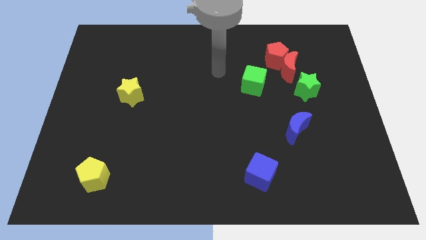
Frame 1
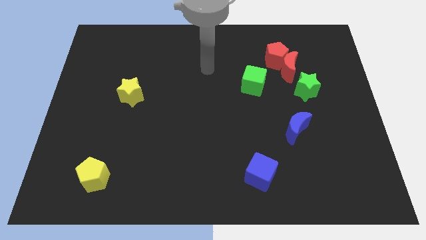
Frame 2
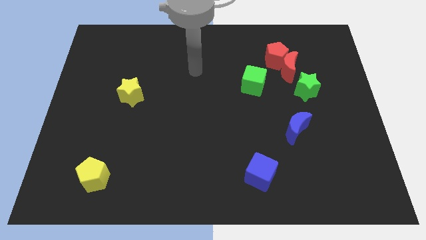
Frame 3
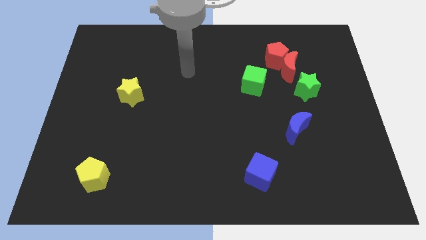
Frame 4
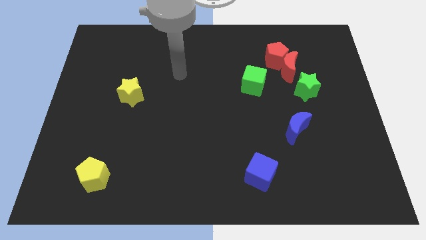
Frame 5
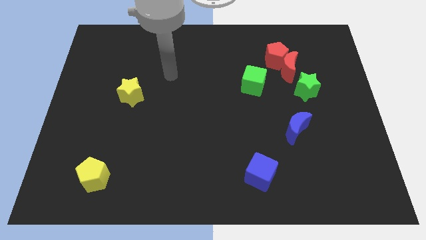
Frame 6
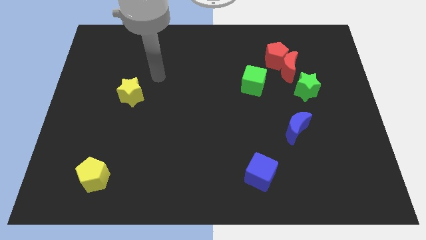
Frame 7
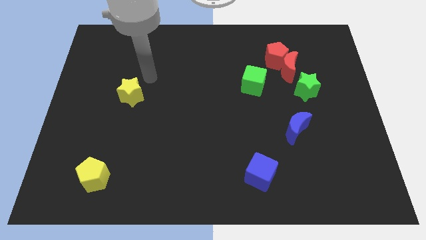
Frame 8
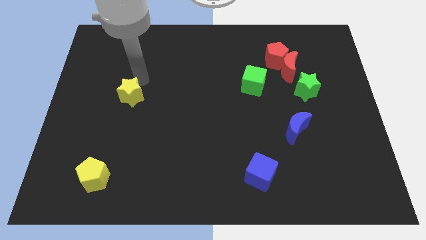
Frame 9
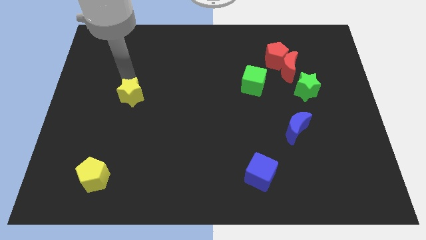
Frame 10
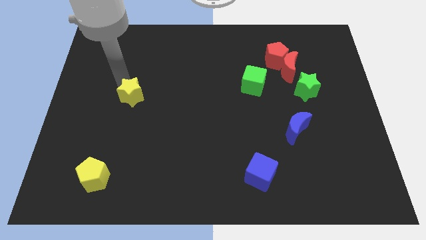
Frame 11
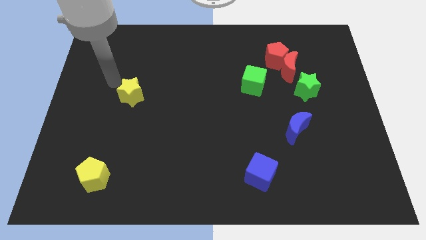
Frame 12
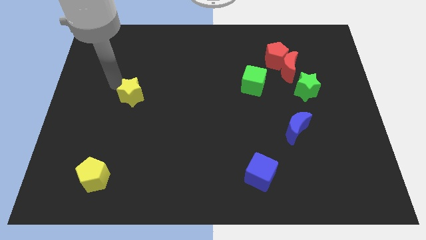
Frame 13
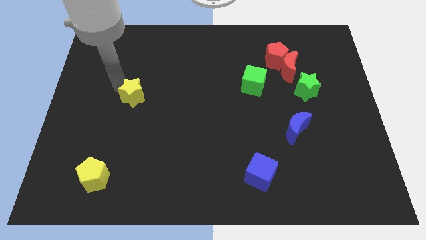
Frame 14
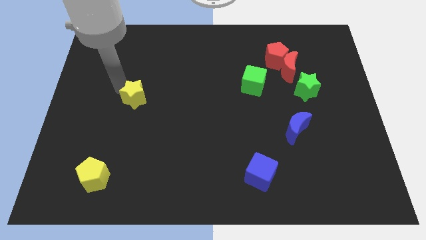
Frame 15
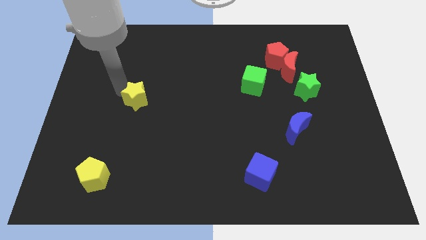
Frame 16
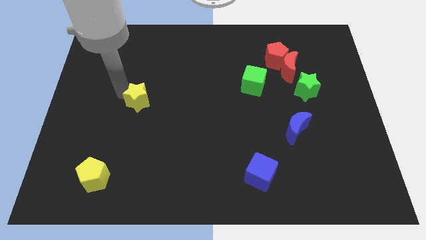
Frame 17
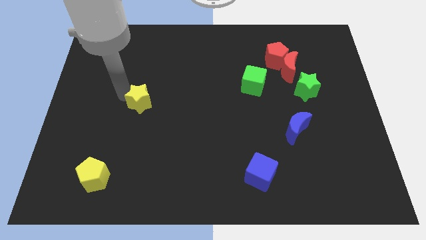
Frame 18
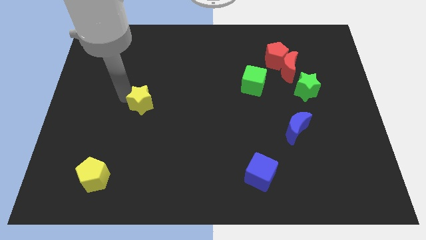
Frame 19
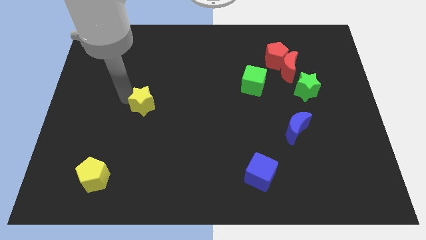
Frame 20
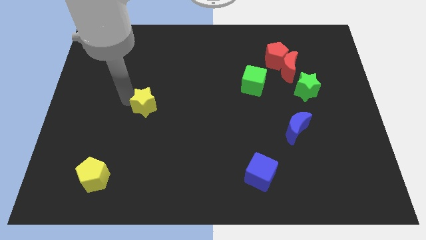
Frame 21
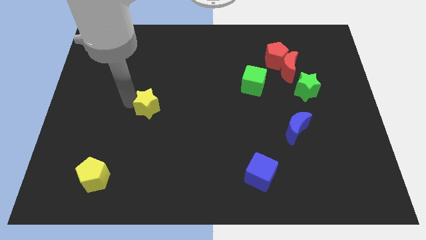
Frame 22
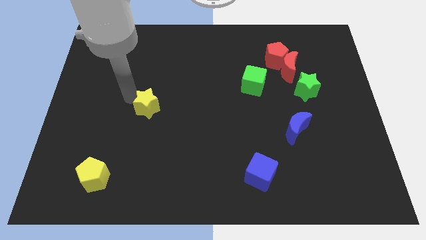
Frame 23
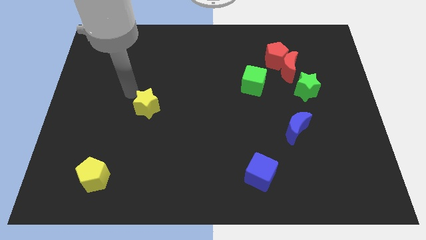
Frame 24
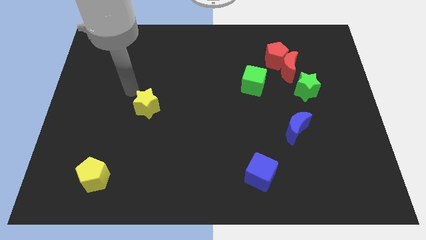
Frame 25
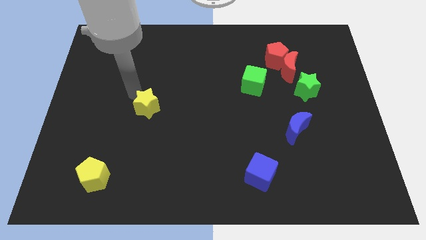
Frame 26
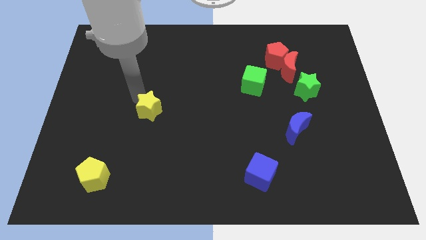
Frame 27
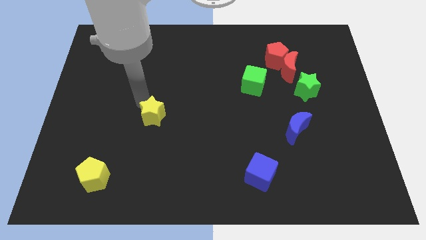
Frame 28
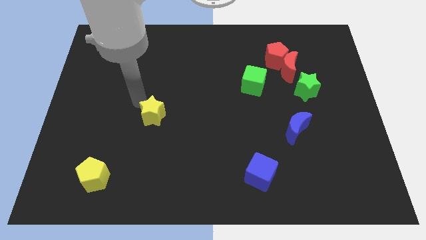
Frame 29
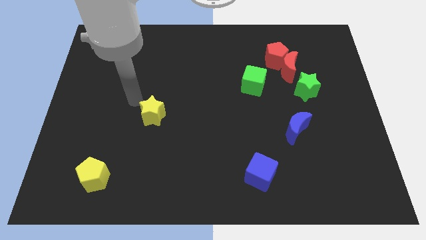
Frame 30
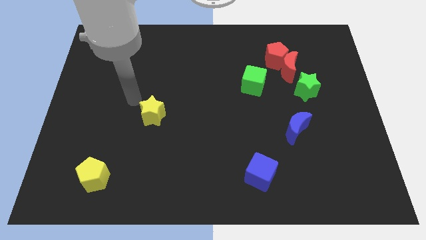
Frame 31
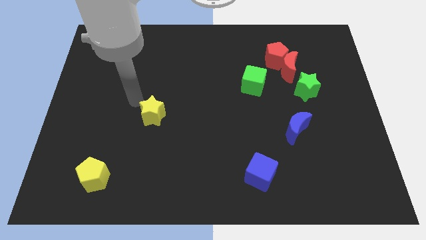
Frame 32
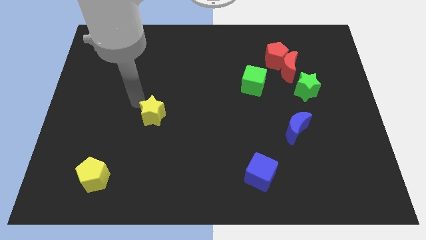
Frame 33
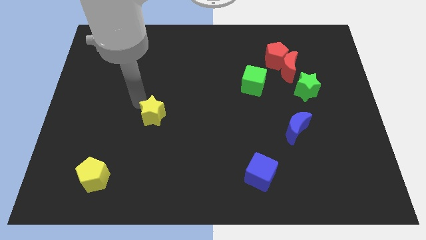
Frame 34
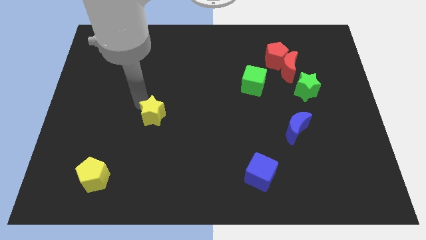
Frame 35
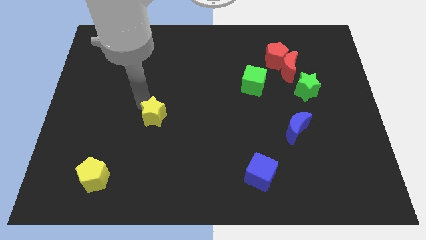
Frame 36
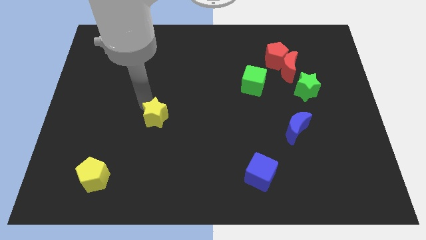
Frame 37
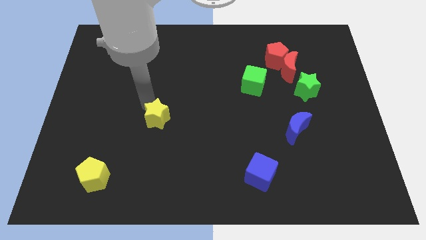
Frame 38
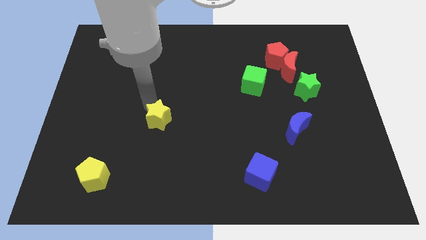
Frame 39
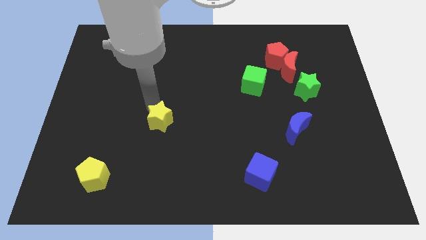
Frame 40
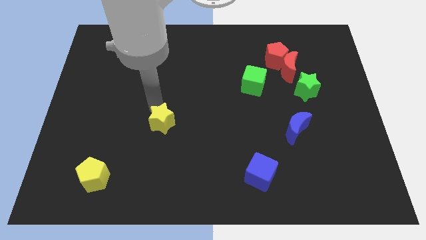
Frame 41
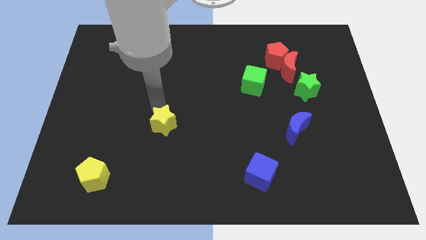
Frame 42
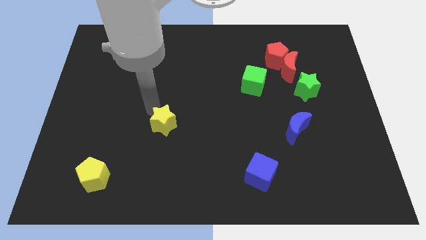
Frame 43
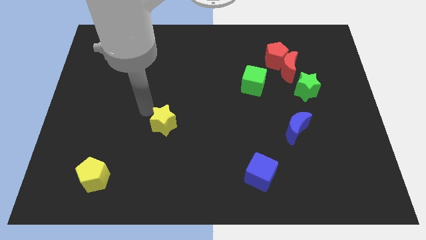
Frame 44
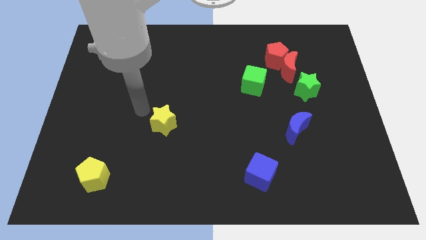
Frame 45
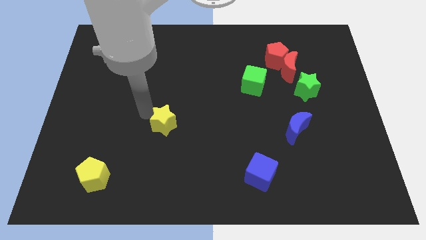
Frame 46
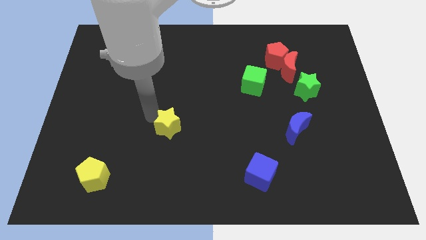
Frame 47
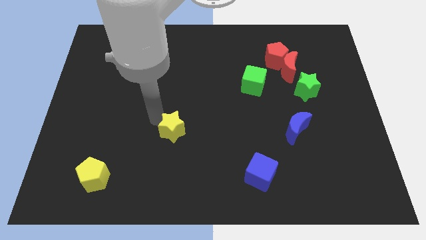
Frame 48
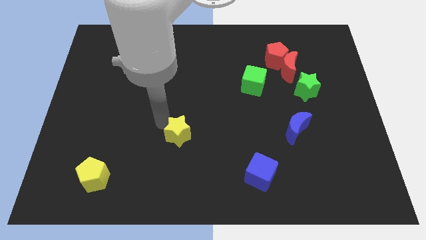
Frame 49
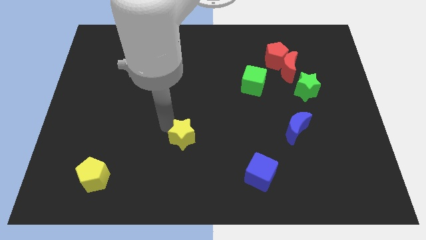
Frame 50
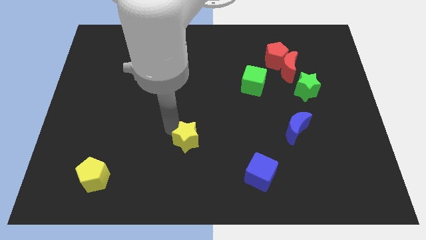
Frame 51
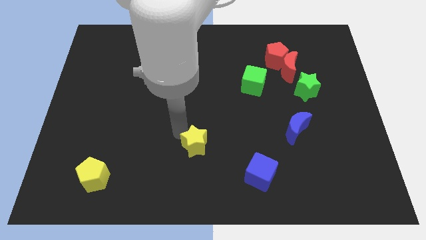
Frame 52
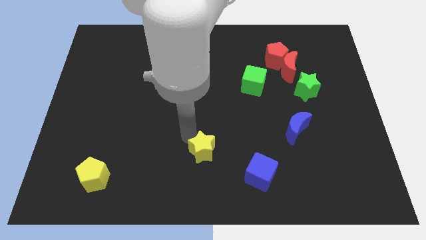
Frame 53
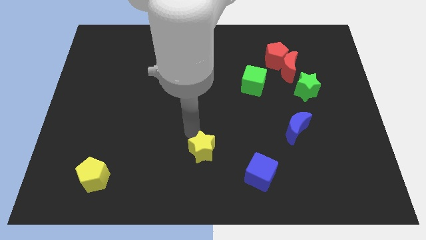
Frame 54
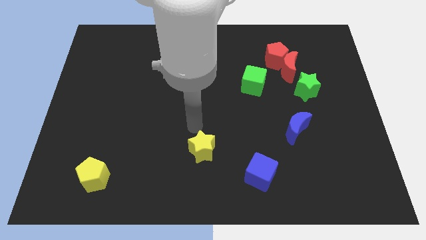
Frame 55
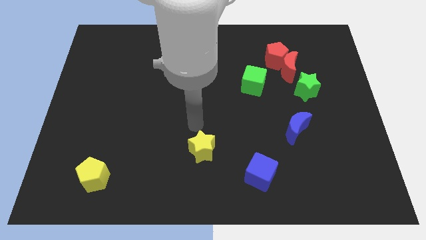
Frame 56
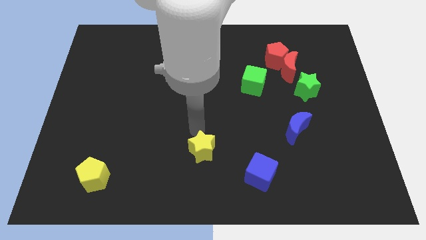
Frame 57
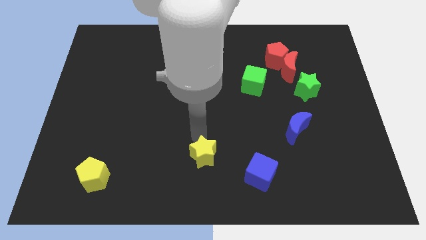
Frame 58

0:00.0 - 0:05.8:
put the yellow star just left of the blue cube

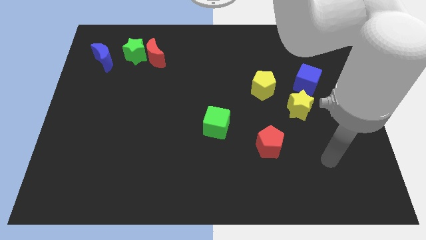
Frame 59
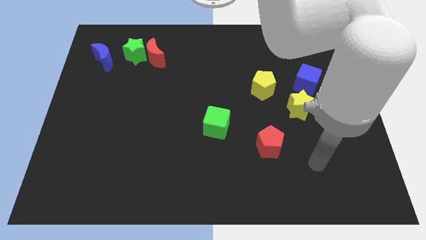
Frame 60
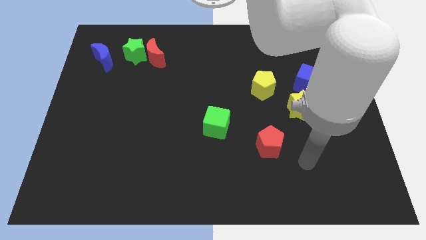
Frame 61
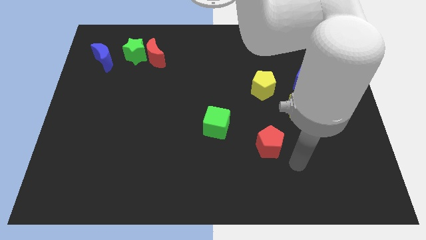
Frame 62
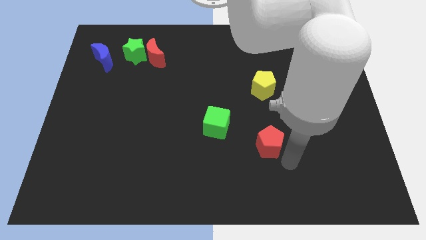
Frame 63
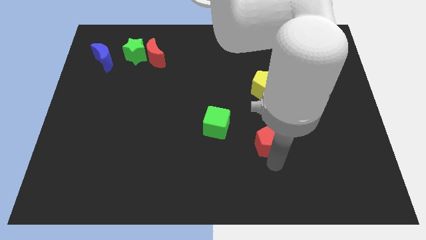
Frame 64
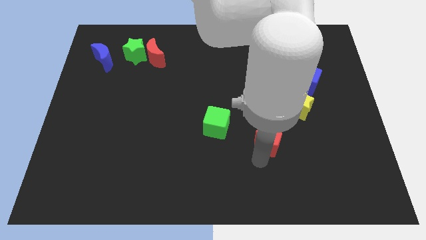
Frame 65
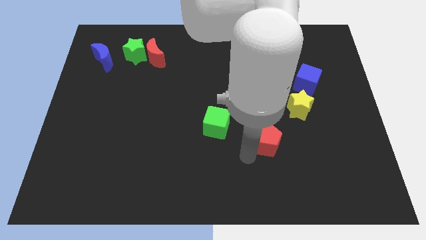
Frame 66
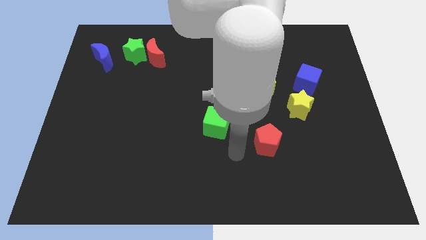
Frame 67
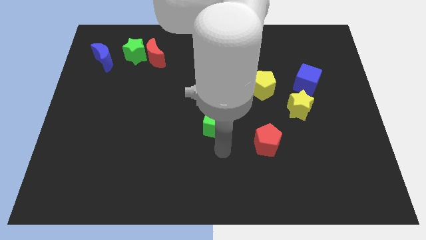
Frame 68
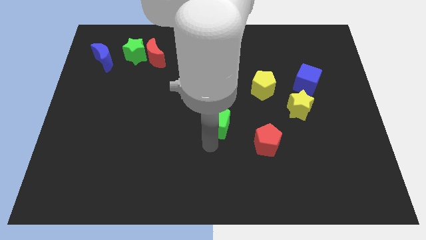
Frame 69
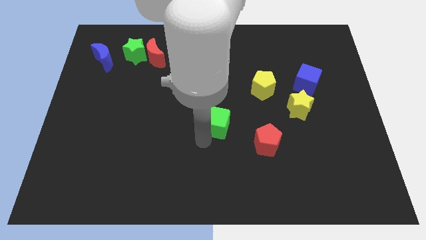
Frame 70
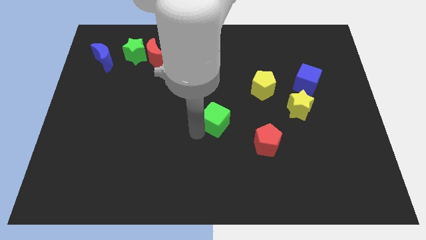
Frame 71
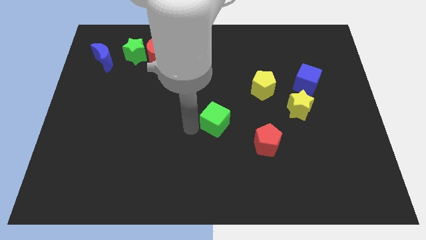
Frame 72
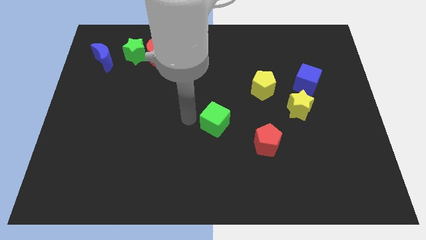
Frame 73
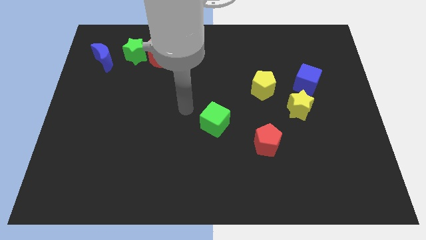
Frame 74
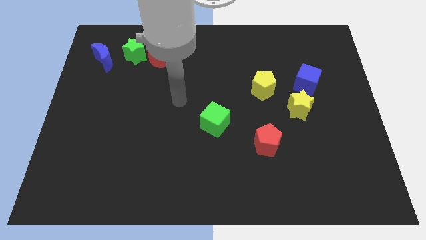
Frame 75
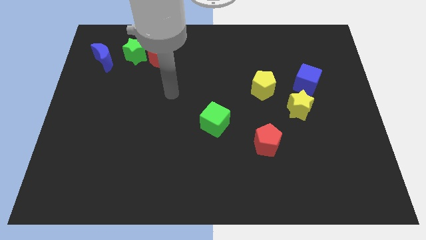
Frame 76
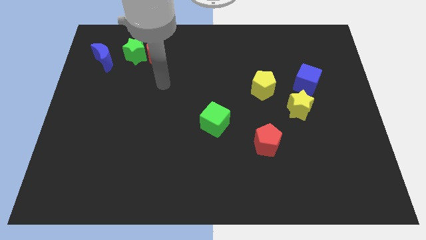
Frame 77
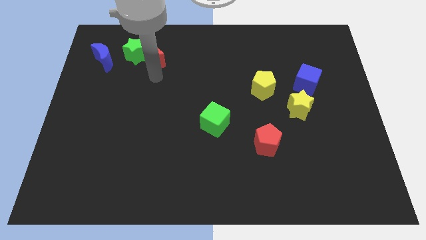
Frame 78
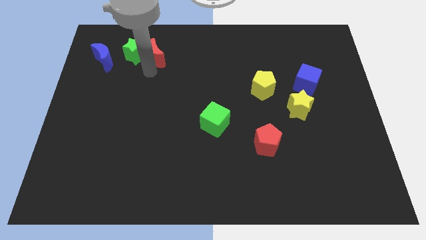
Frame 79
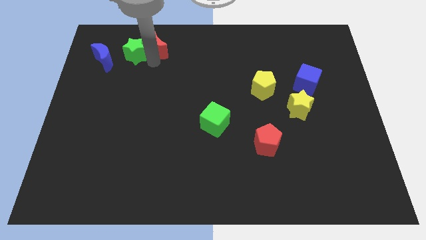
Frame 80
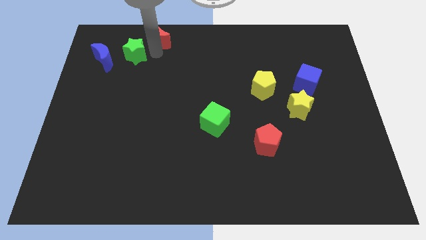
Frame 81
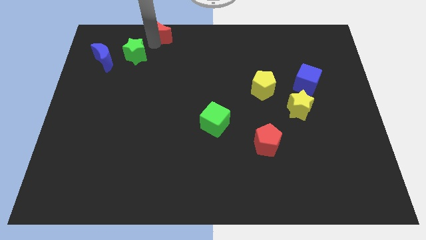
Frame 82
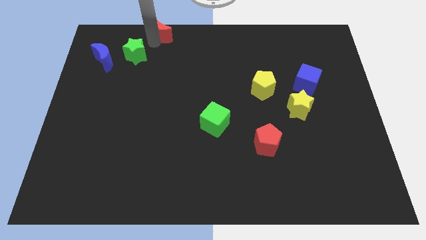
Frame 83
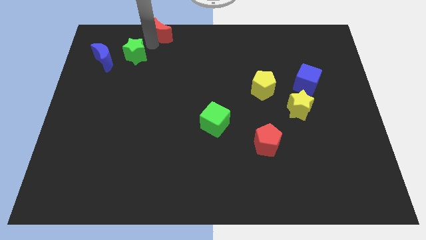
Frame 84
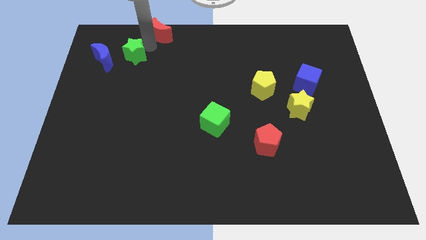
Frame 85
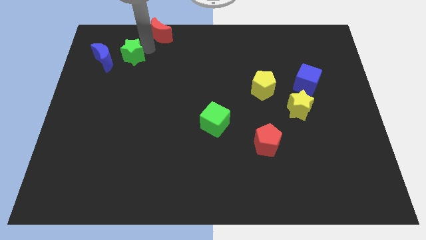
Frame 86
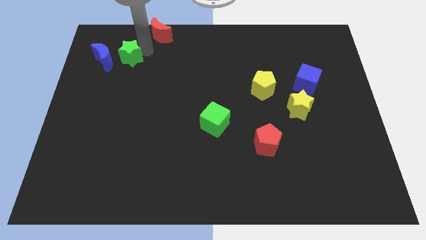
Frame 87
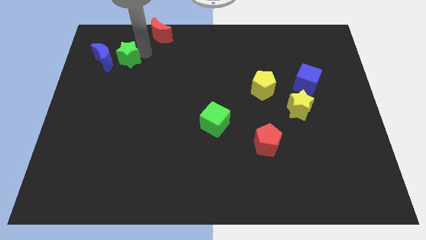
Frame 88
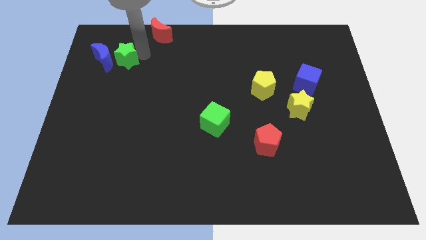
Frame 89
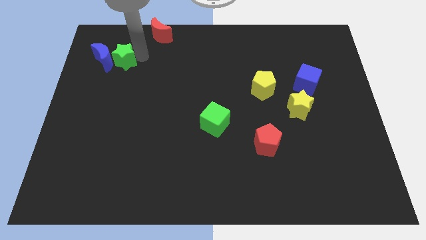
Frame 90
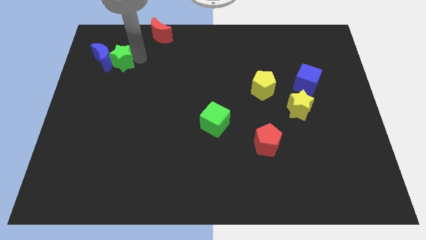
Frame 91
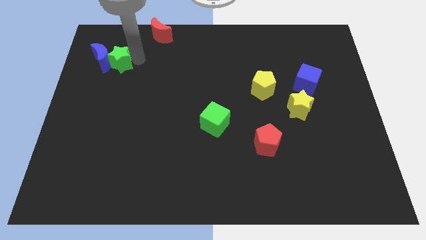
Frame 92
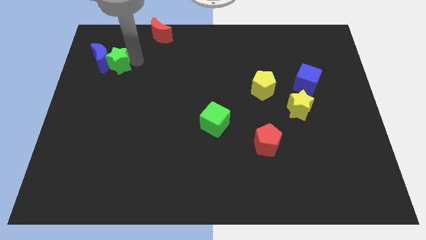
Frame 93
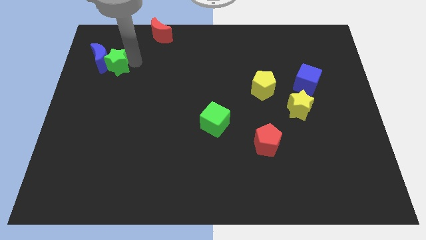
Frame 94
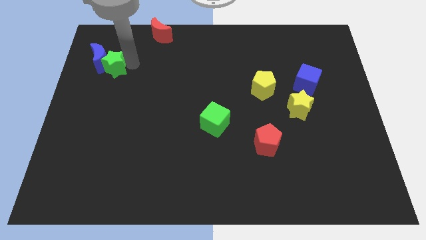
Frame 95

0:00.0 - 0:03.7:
put the green star below the blue moon
